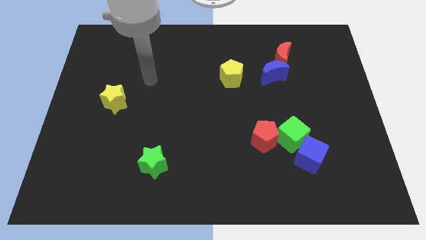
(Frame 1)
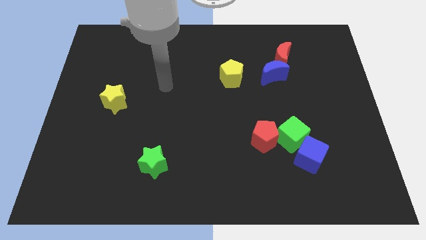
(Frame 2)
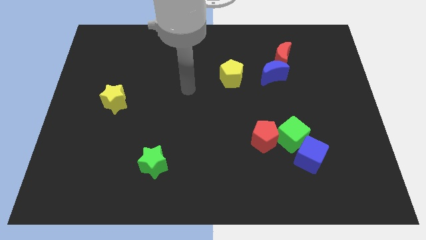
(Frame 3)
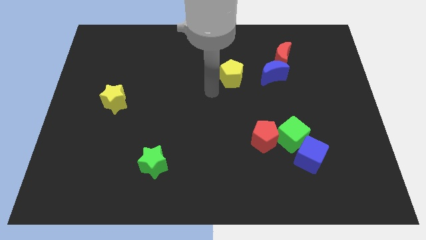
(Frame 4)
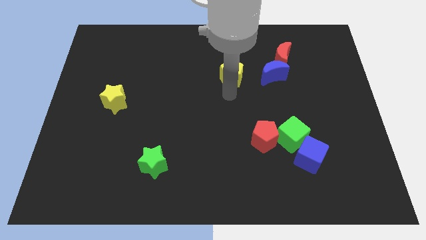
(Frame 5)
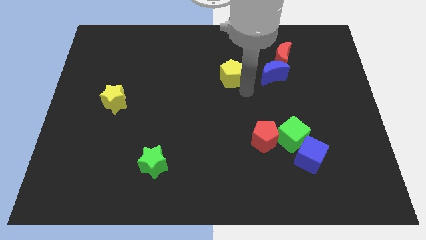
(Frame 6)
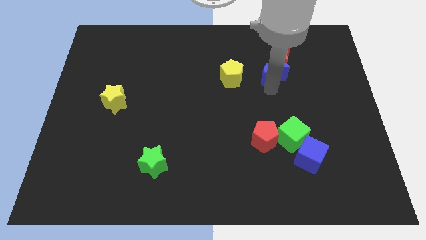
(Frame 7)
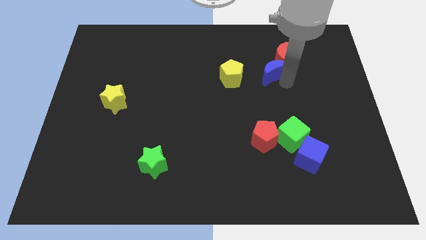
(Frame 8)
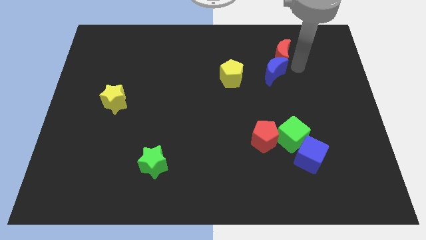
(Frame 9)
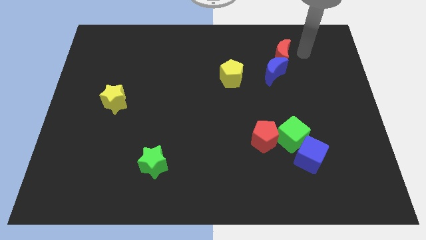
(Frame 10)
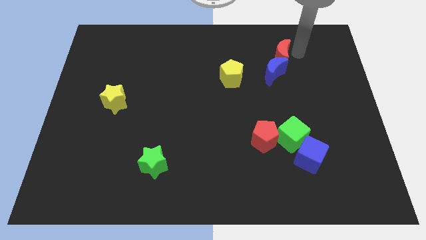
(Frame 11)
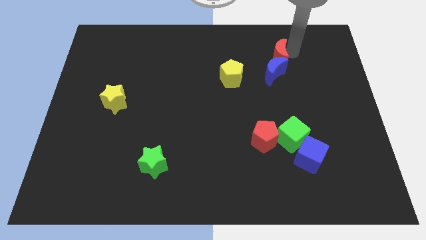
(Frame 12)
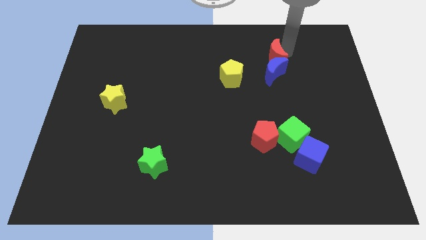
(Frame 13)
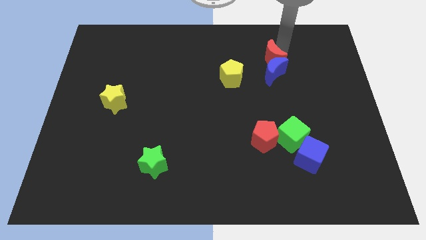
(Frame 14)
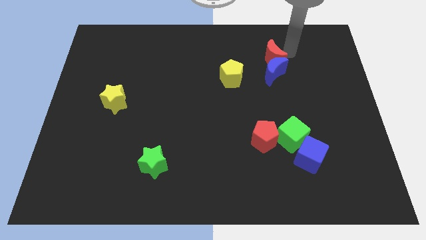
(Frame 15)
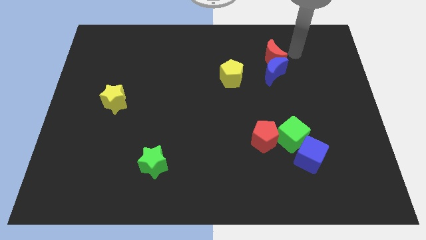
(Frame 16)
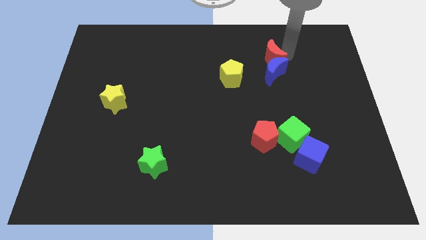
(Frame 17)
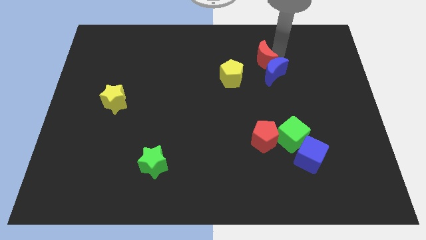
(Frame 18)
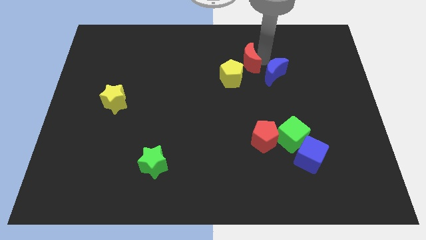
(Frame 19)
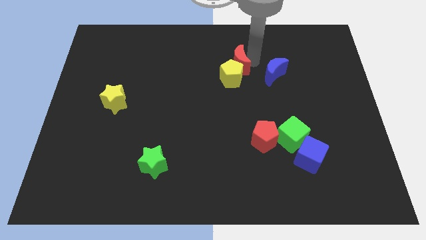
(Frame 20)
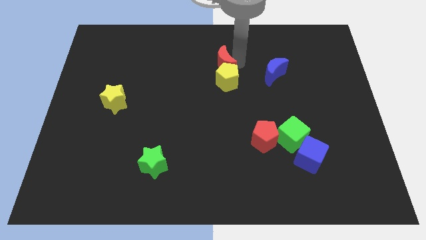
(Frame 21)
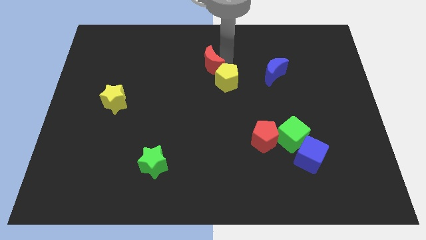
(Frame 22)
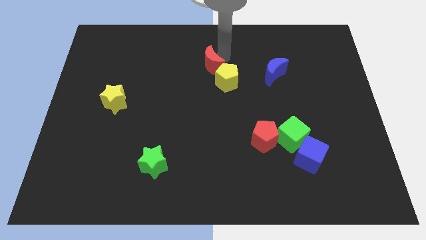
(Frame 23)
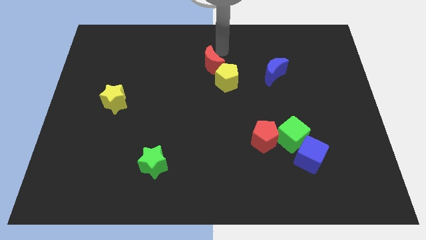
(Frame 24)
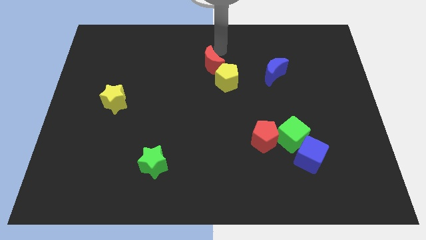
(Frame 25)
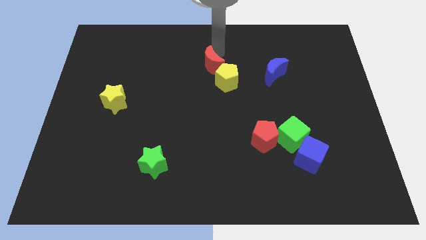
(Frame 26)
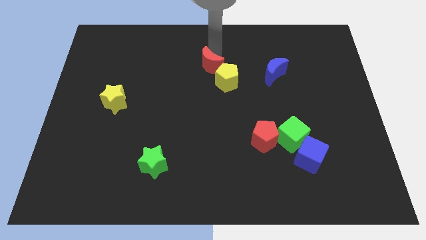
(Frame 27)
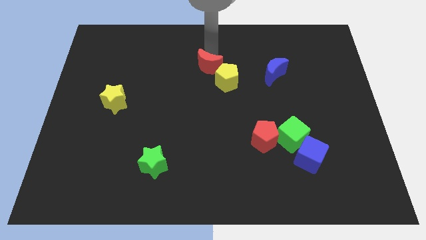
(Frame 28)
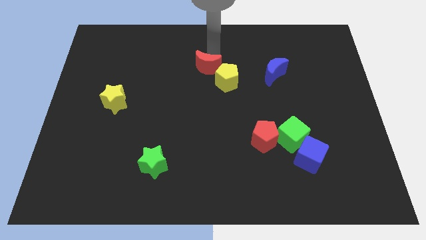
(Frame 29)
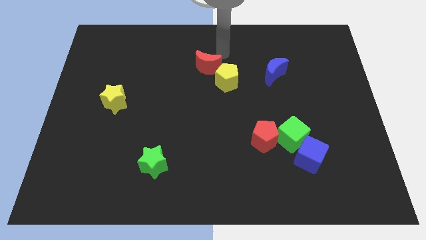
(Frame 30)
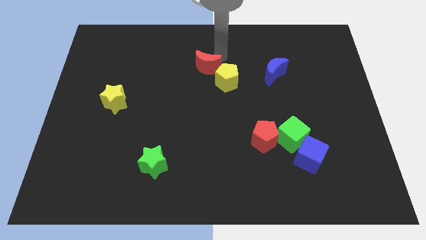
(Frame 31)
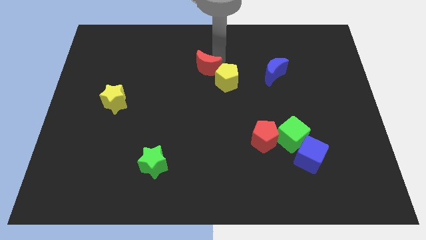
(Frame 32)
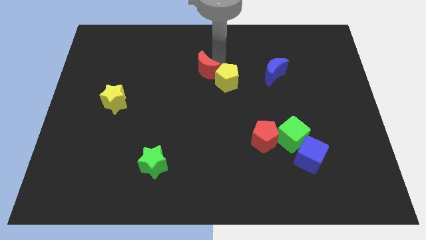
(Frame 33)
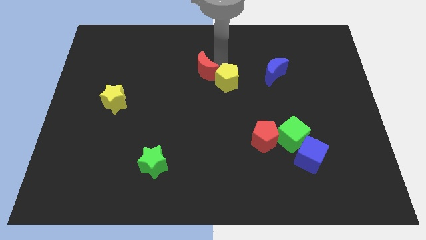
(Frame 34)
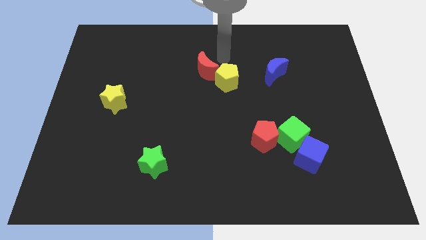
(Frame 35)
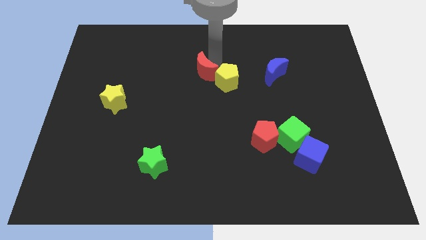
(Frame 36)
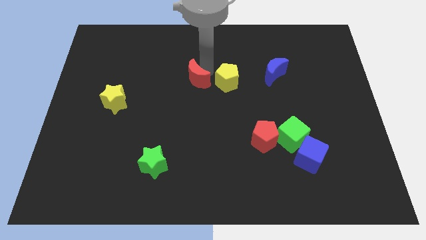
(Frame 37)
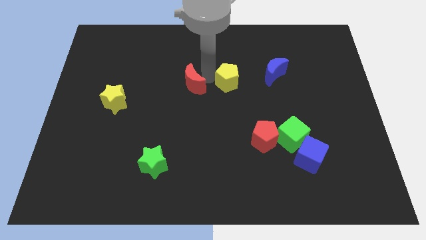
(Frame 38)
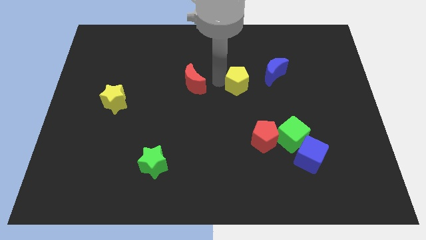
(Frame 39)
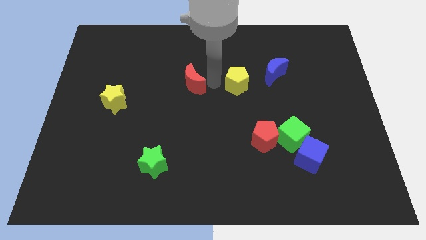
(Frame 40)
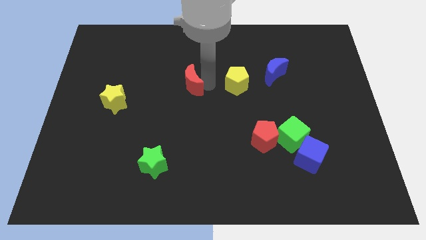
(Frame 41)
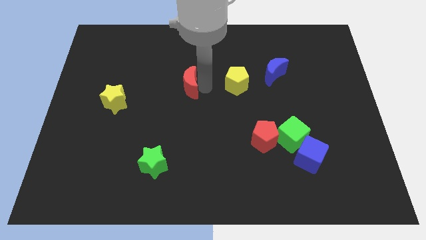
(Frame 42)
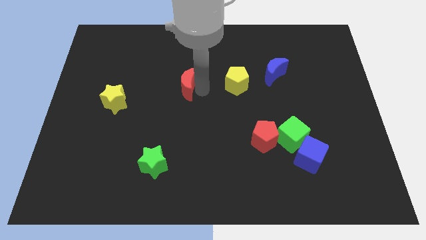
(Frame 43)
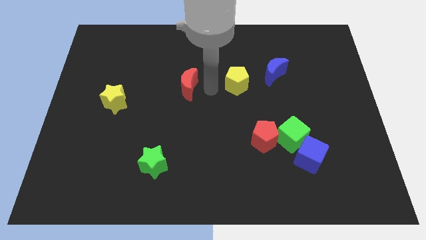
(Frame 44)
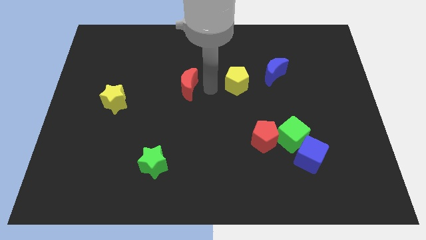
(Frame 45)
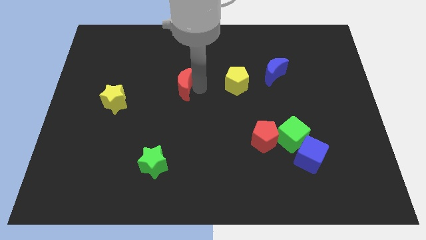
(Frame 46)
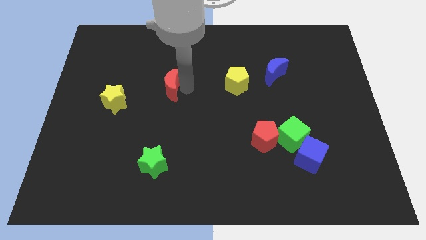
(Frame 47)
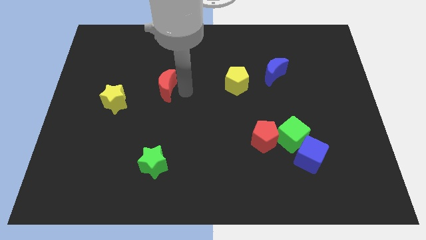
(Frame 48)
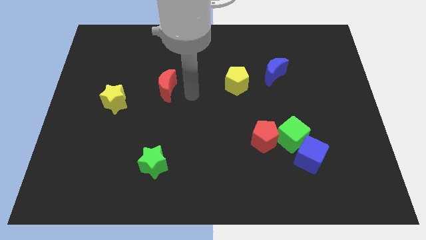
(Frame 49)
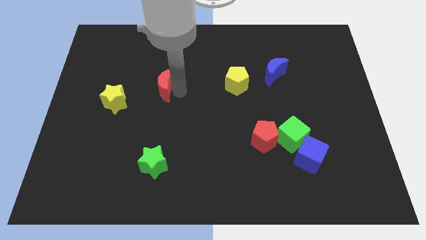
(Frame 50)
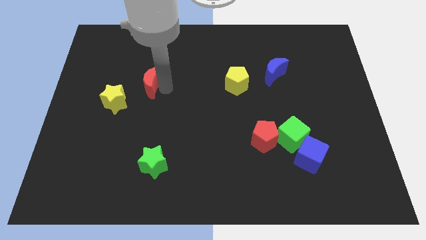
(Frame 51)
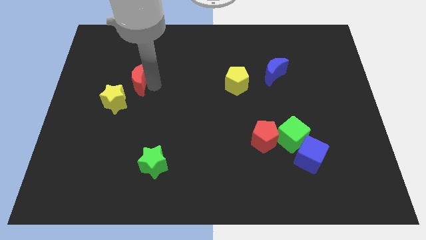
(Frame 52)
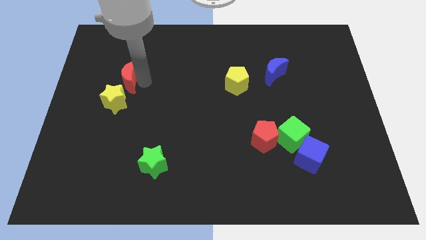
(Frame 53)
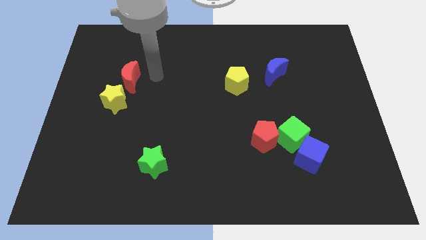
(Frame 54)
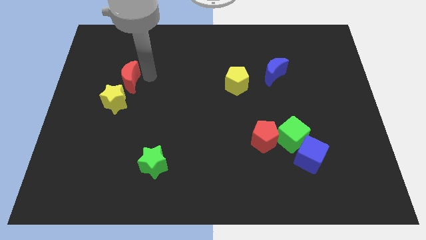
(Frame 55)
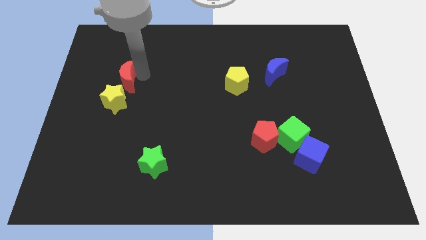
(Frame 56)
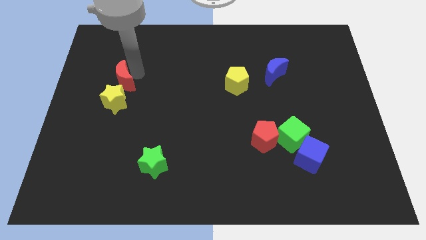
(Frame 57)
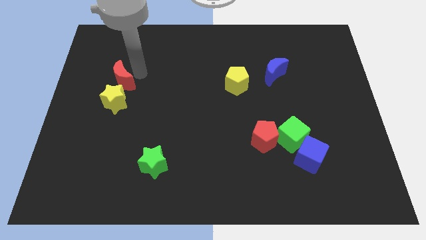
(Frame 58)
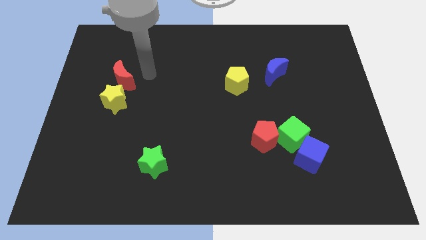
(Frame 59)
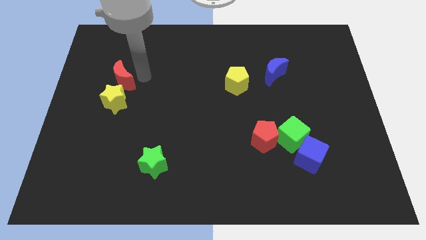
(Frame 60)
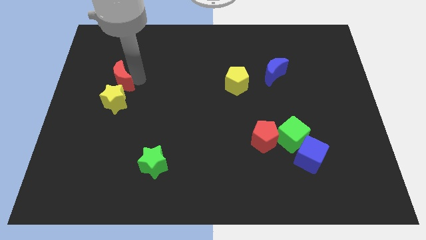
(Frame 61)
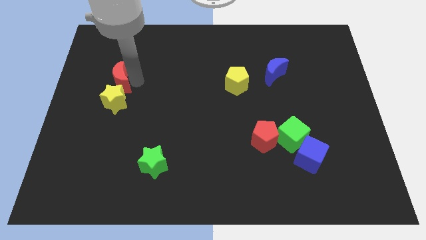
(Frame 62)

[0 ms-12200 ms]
slide the red moon diagonally up and to the left of the yellow star
